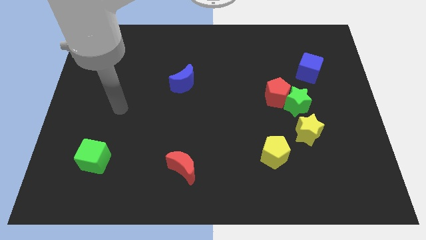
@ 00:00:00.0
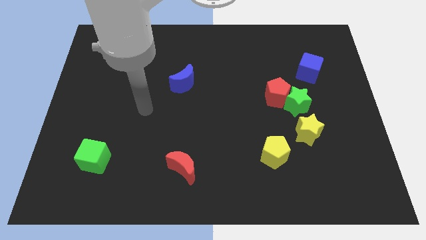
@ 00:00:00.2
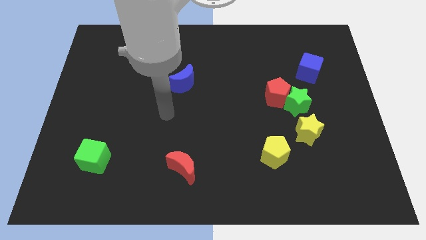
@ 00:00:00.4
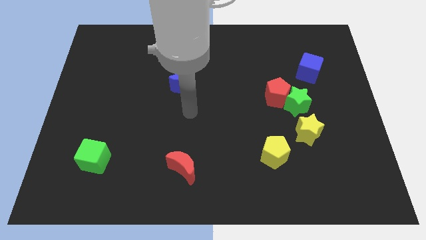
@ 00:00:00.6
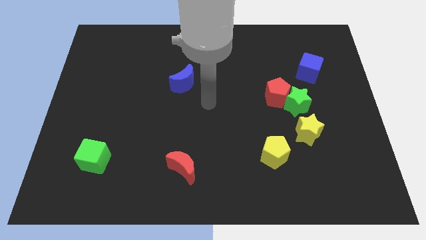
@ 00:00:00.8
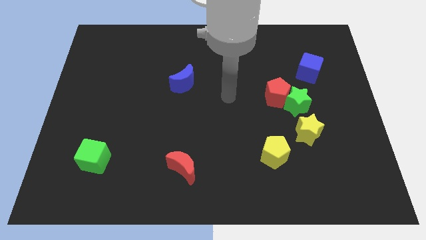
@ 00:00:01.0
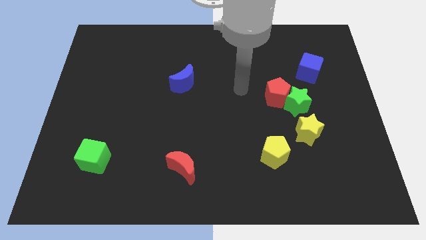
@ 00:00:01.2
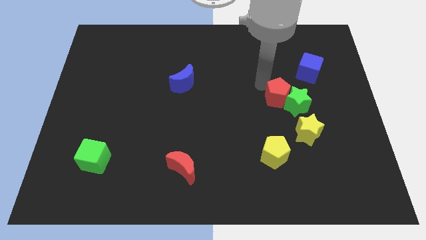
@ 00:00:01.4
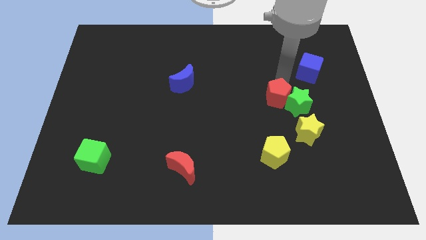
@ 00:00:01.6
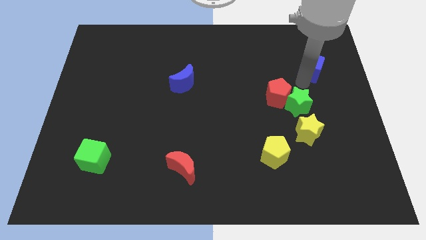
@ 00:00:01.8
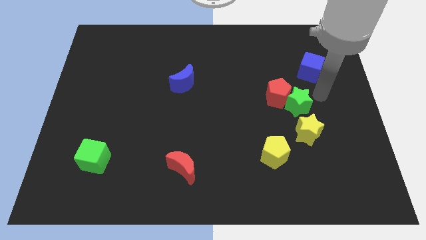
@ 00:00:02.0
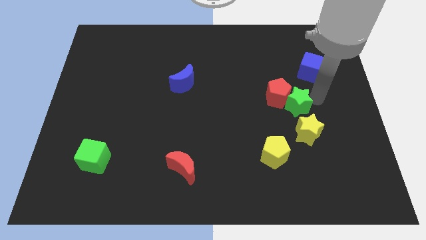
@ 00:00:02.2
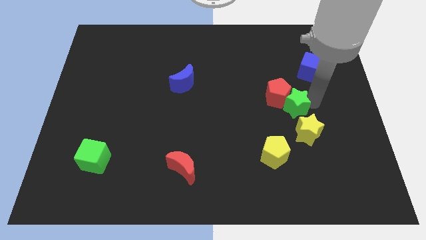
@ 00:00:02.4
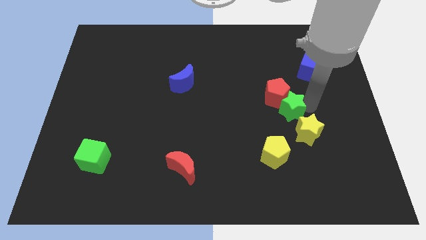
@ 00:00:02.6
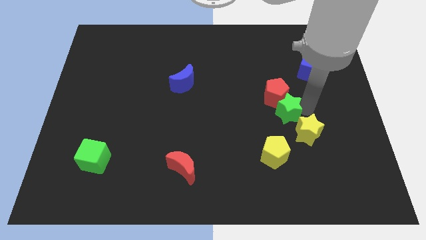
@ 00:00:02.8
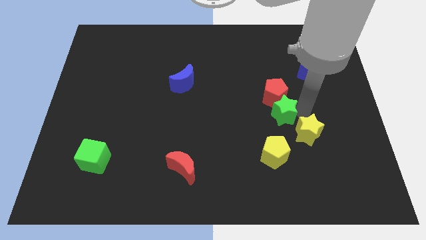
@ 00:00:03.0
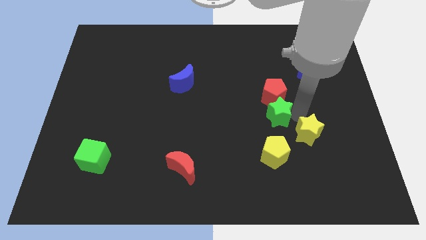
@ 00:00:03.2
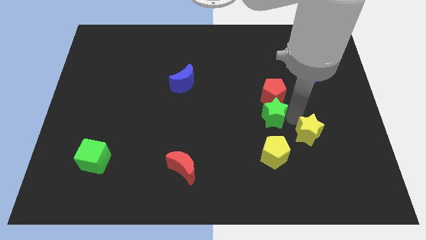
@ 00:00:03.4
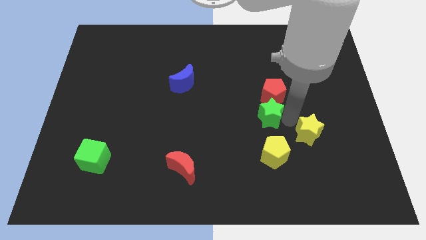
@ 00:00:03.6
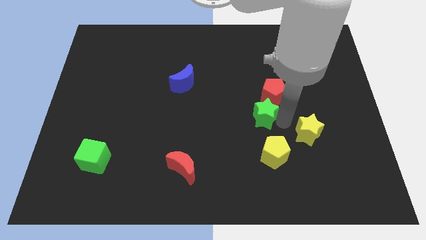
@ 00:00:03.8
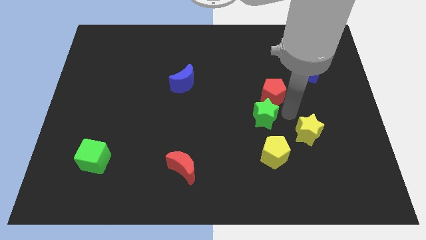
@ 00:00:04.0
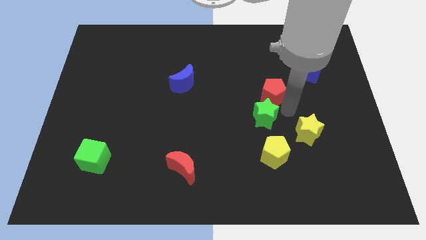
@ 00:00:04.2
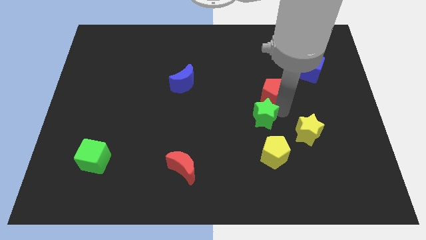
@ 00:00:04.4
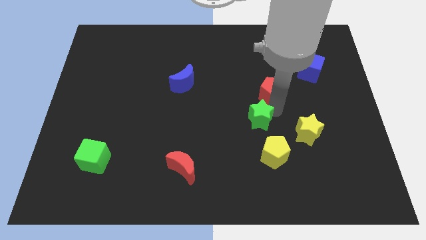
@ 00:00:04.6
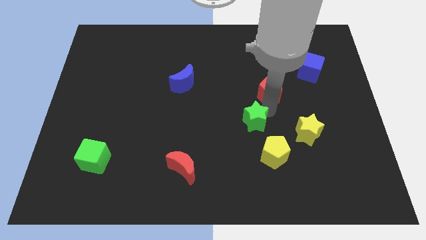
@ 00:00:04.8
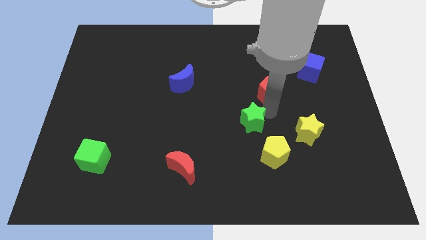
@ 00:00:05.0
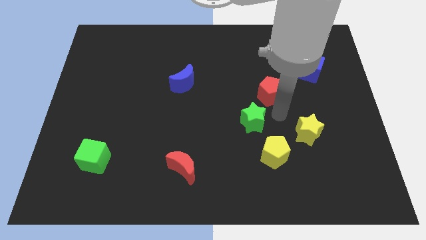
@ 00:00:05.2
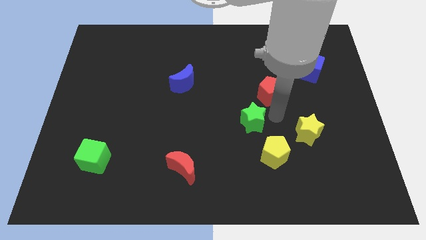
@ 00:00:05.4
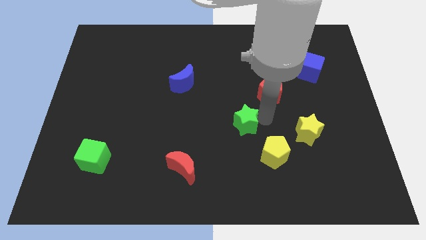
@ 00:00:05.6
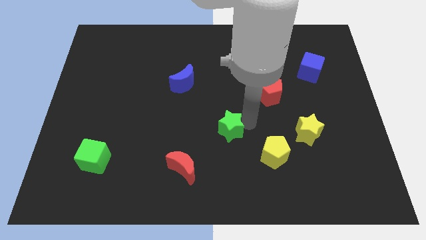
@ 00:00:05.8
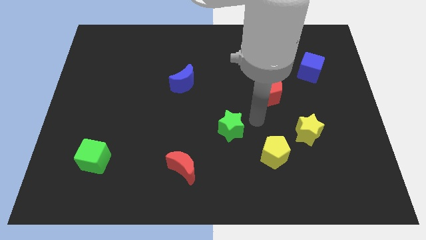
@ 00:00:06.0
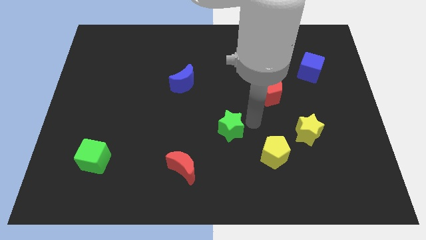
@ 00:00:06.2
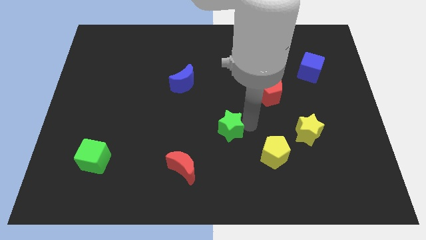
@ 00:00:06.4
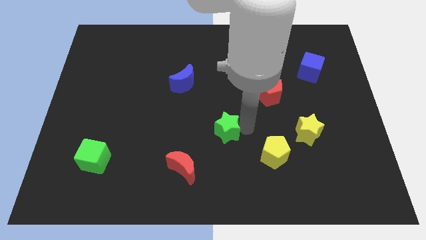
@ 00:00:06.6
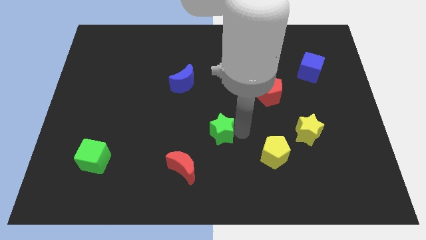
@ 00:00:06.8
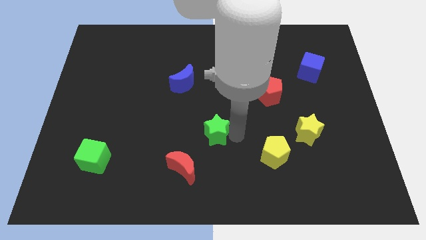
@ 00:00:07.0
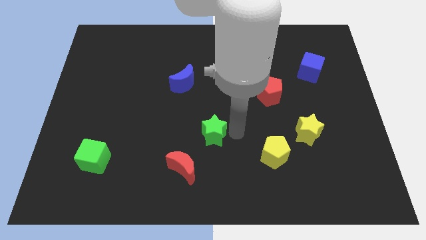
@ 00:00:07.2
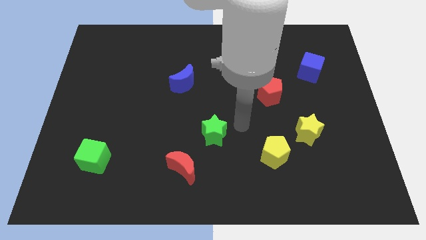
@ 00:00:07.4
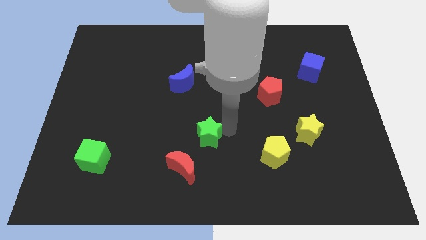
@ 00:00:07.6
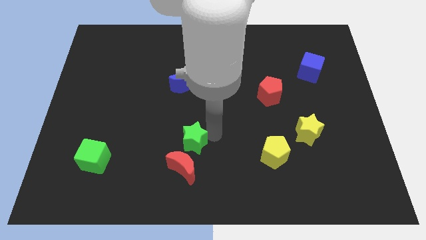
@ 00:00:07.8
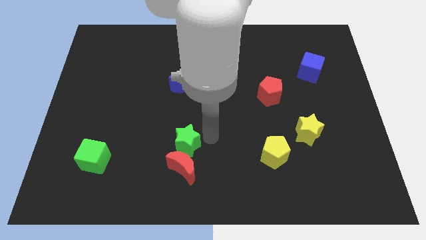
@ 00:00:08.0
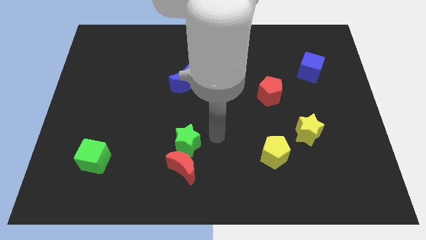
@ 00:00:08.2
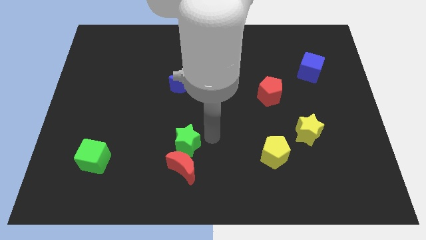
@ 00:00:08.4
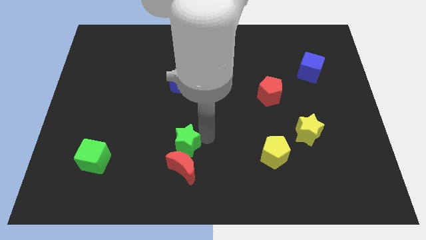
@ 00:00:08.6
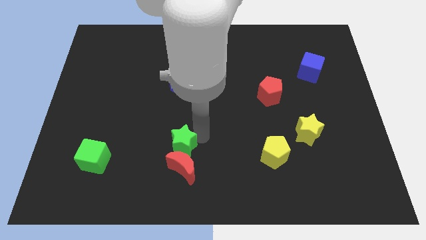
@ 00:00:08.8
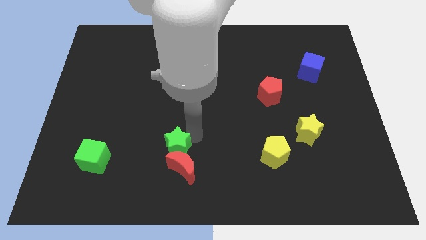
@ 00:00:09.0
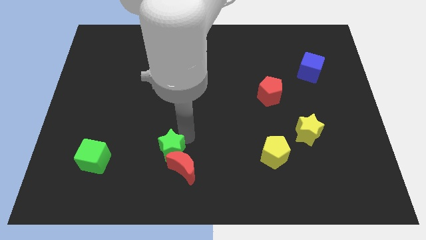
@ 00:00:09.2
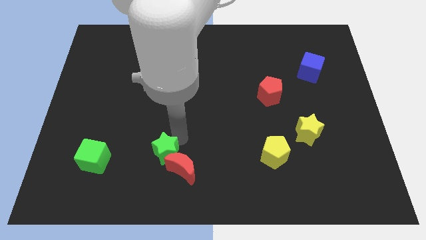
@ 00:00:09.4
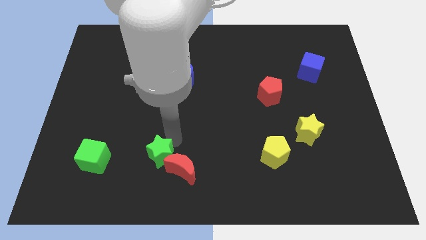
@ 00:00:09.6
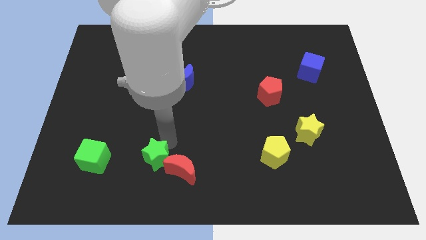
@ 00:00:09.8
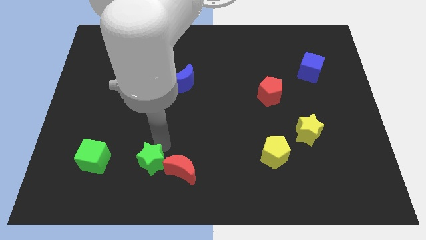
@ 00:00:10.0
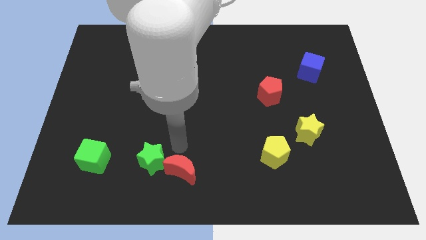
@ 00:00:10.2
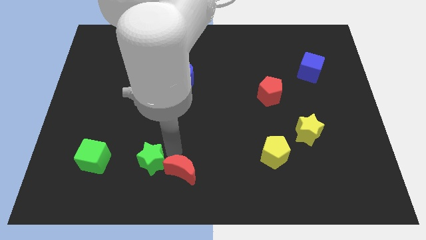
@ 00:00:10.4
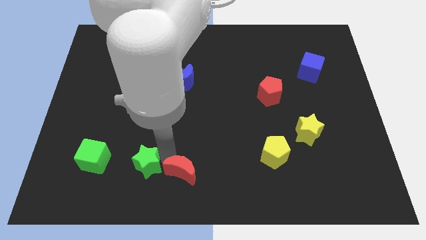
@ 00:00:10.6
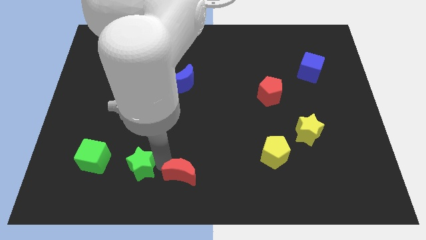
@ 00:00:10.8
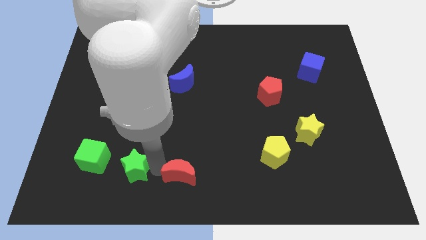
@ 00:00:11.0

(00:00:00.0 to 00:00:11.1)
push the green star to the bottom right of the green cube

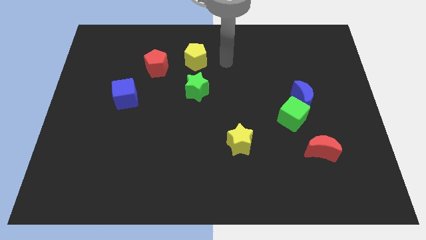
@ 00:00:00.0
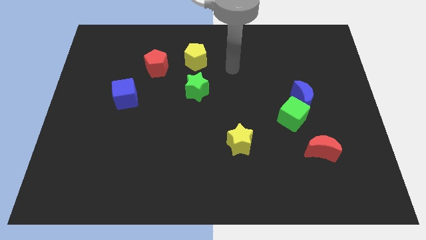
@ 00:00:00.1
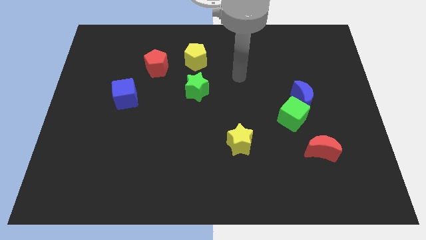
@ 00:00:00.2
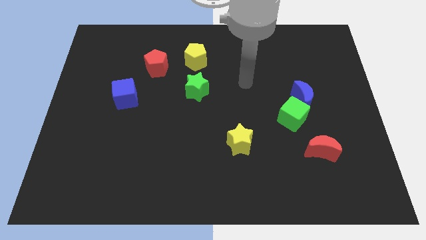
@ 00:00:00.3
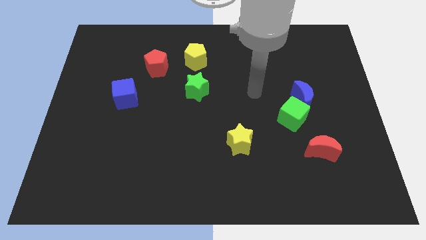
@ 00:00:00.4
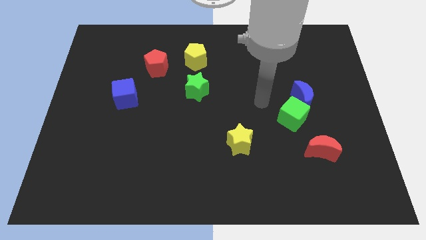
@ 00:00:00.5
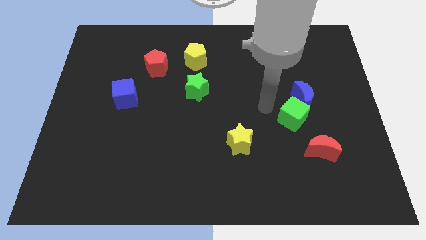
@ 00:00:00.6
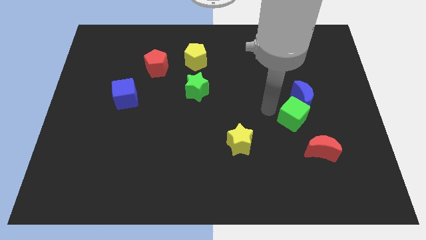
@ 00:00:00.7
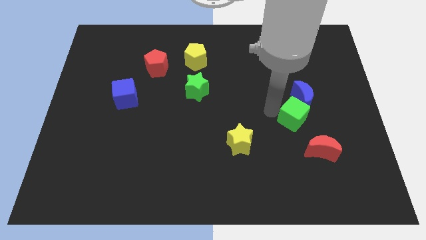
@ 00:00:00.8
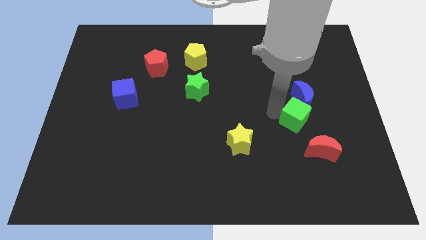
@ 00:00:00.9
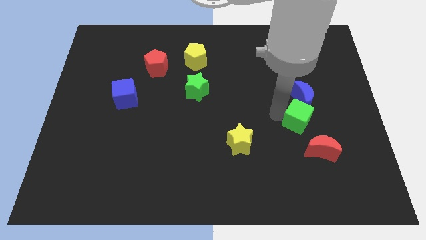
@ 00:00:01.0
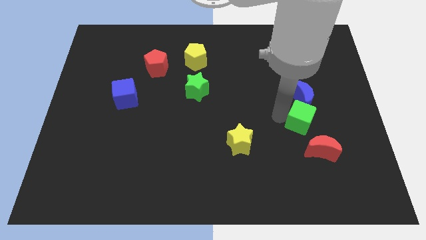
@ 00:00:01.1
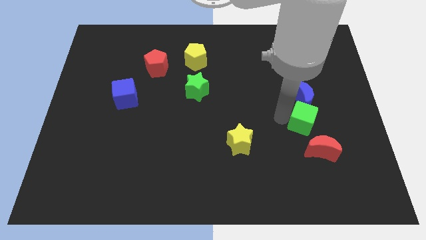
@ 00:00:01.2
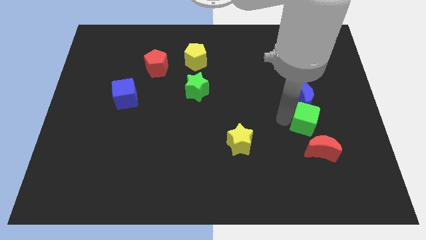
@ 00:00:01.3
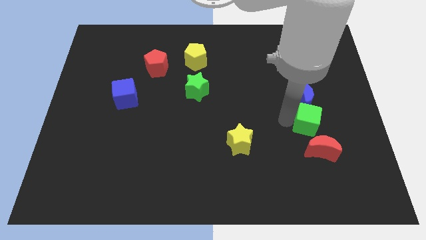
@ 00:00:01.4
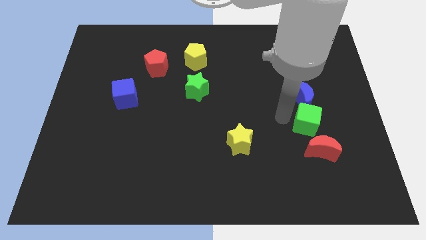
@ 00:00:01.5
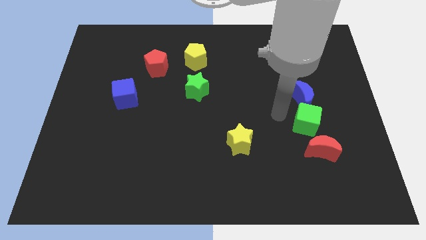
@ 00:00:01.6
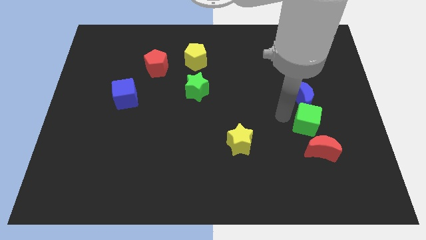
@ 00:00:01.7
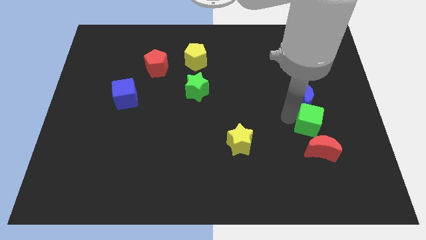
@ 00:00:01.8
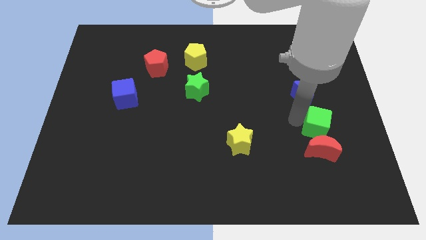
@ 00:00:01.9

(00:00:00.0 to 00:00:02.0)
move the green cube diagonally up and to the right of the red moon
